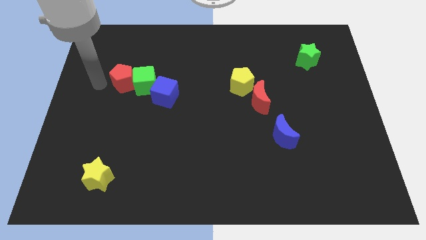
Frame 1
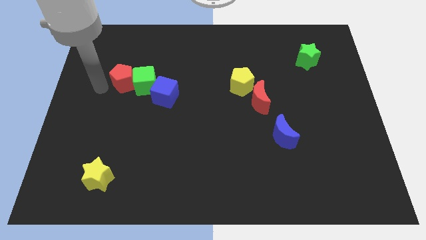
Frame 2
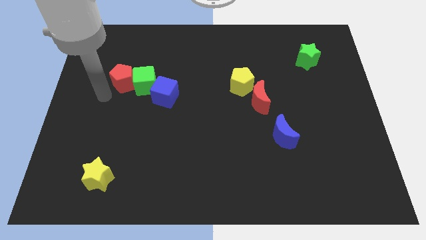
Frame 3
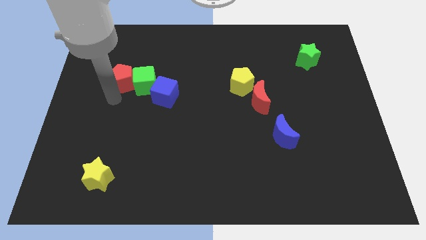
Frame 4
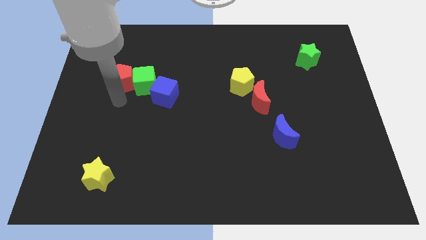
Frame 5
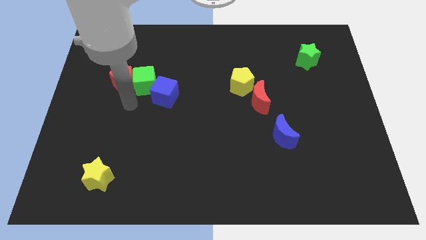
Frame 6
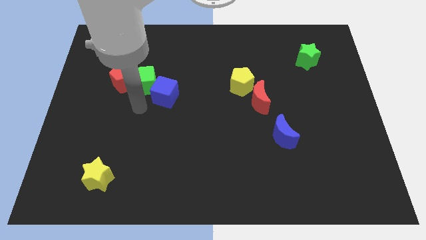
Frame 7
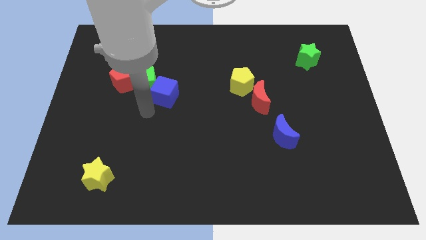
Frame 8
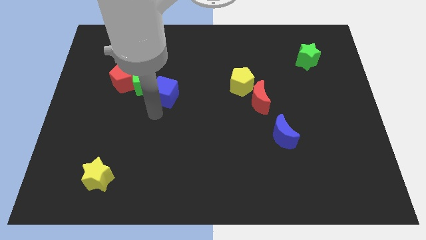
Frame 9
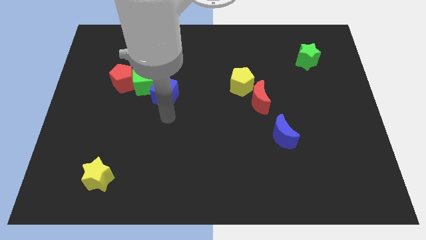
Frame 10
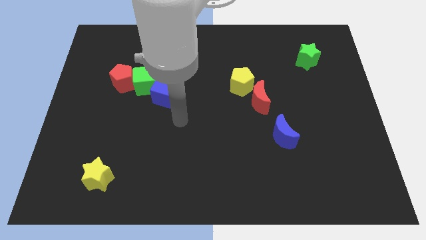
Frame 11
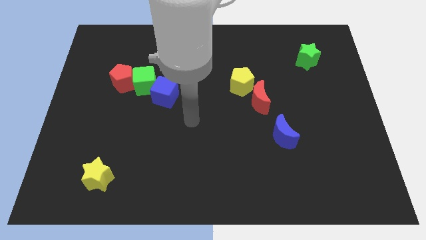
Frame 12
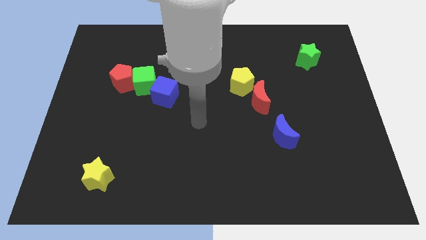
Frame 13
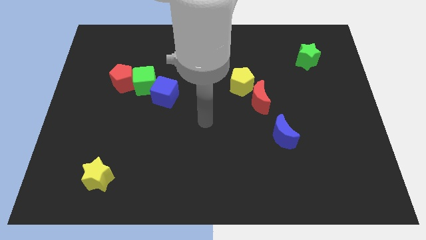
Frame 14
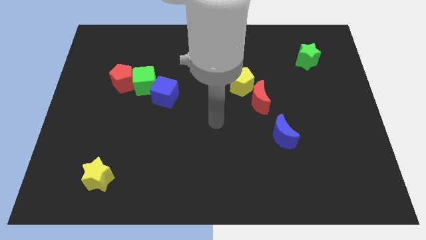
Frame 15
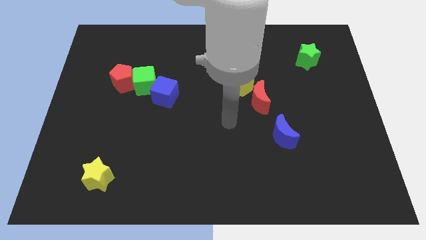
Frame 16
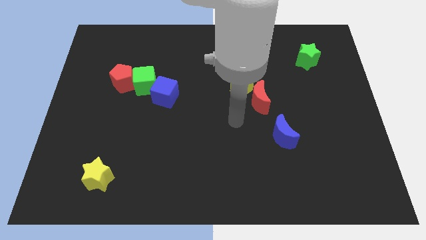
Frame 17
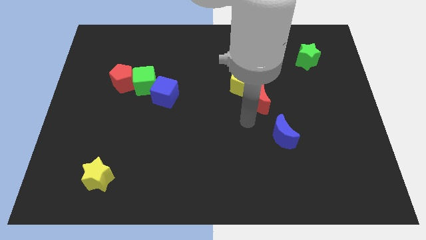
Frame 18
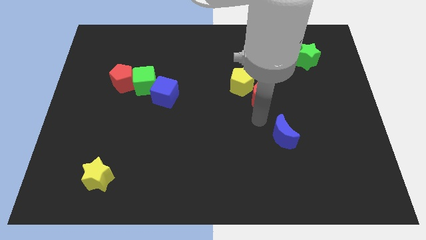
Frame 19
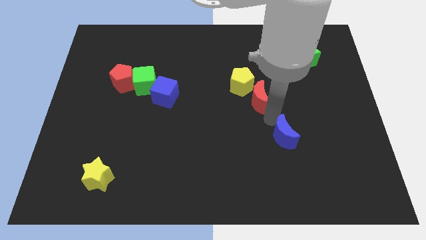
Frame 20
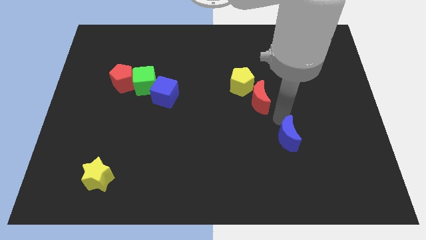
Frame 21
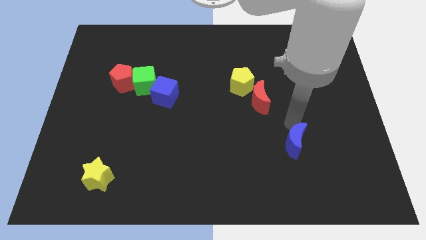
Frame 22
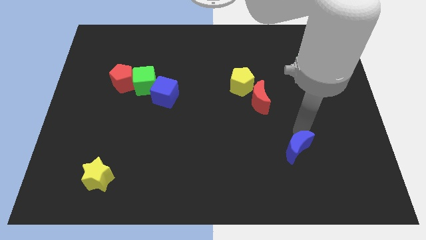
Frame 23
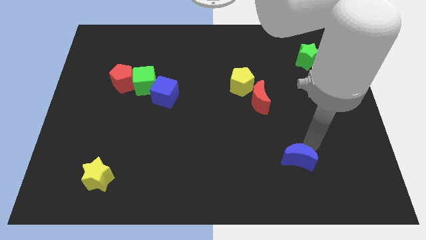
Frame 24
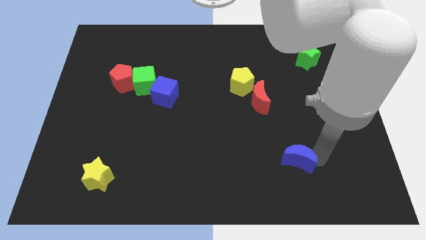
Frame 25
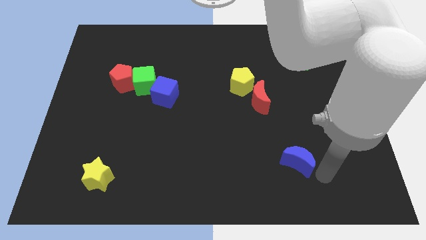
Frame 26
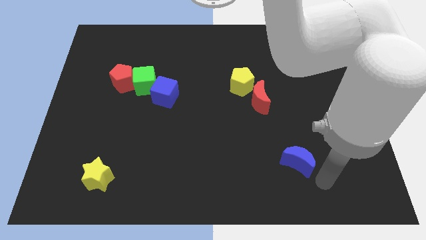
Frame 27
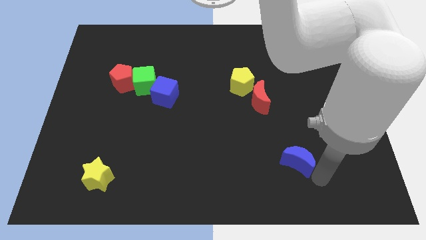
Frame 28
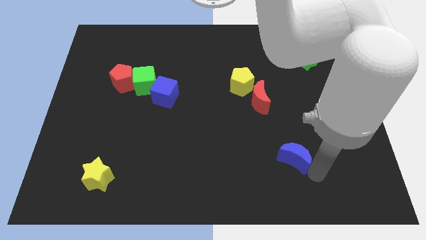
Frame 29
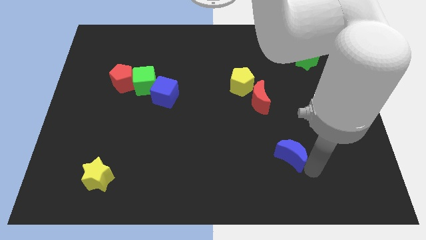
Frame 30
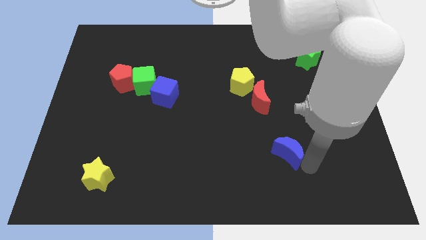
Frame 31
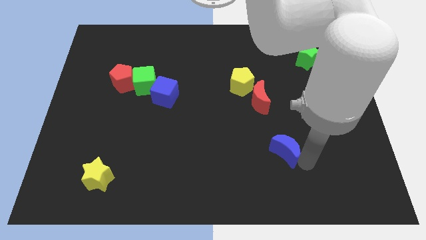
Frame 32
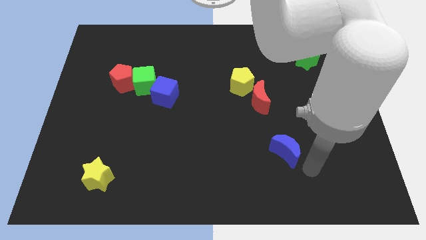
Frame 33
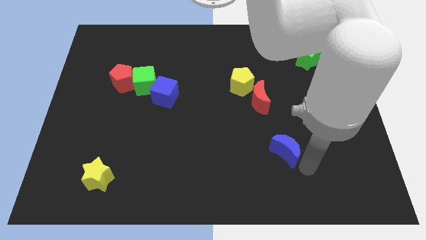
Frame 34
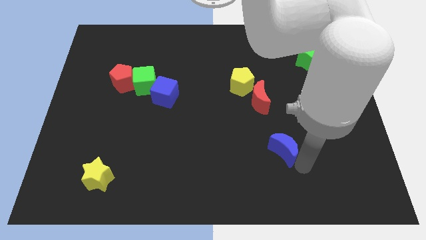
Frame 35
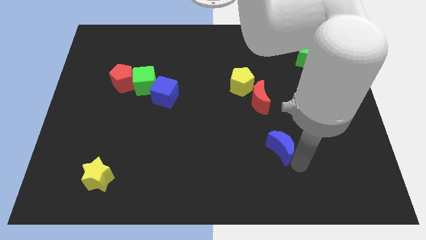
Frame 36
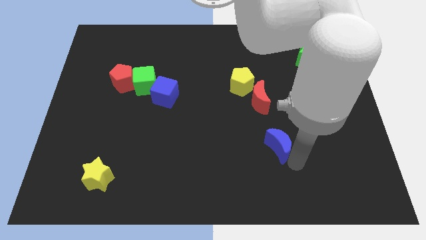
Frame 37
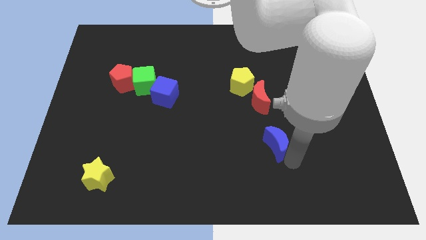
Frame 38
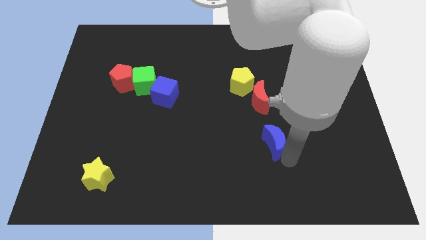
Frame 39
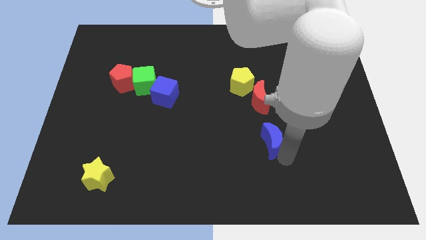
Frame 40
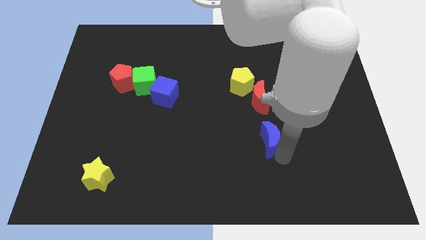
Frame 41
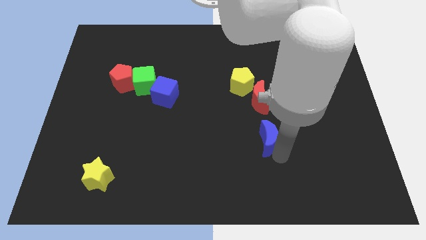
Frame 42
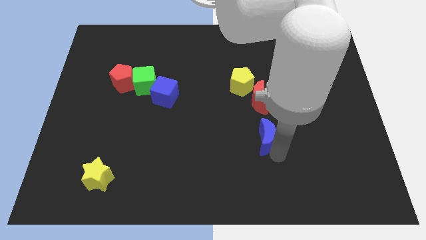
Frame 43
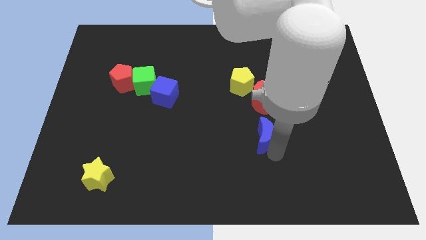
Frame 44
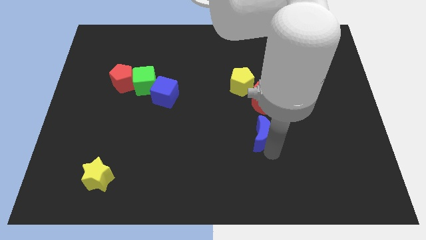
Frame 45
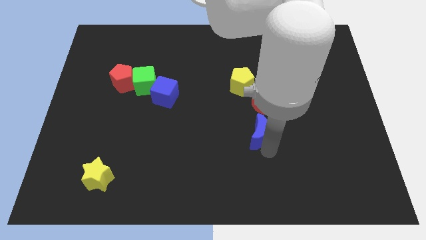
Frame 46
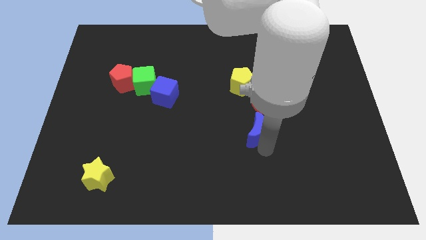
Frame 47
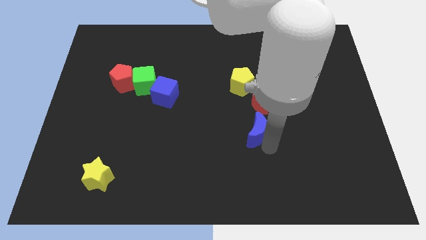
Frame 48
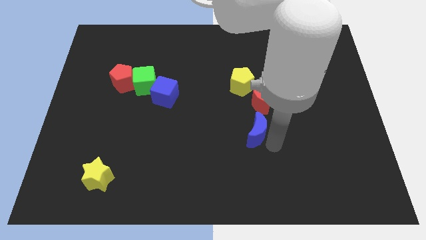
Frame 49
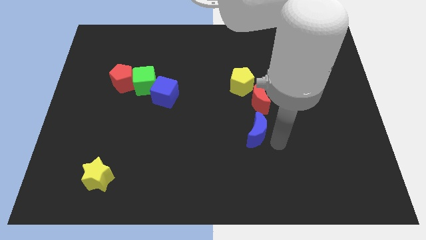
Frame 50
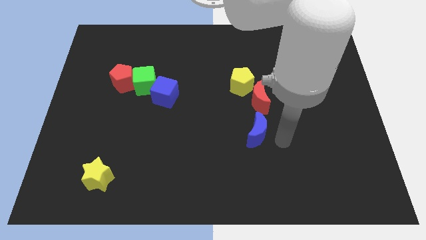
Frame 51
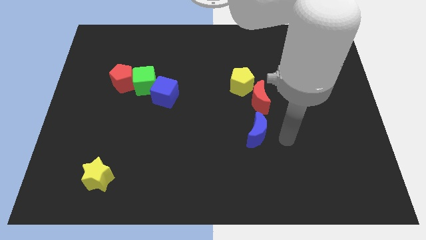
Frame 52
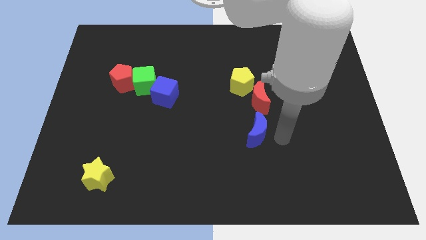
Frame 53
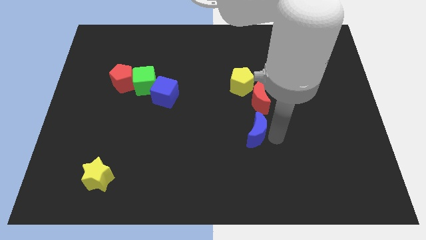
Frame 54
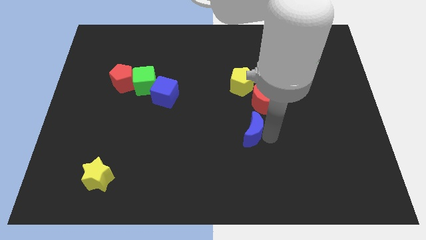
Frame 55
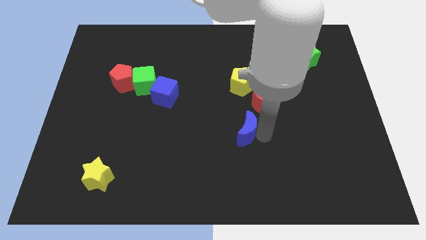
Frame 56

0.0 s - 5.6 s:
move the blue moon left slightly

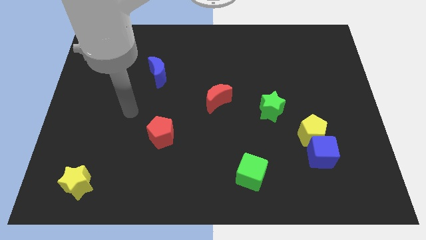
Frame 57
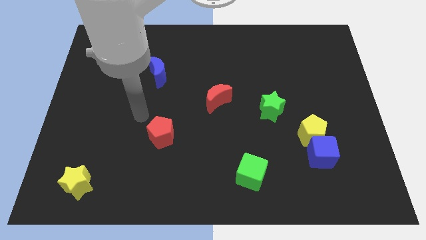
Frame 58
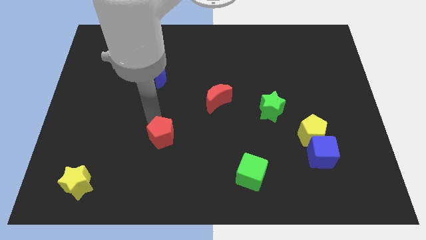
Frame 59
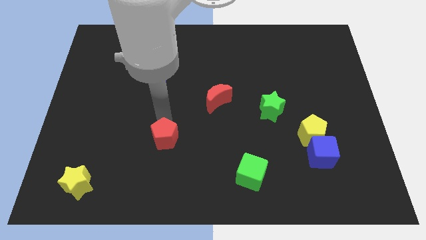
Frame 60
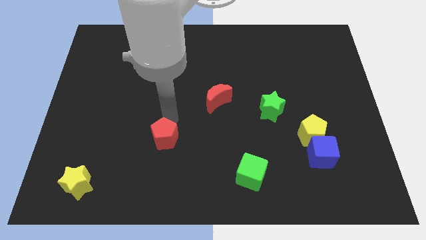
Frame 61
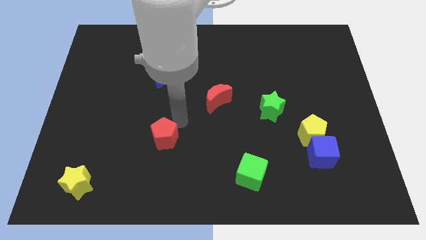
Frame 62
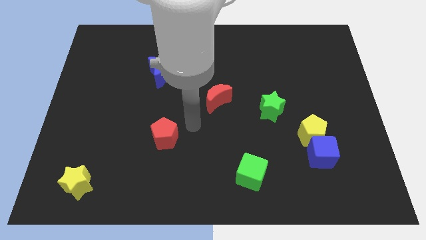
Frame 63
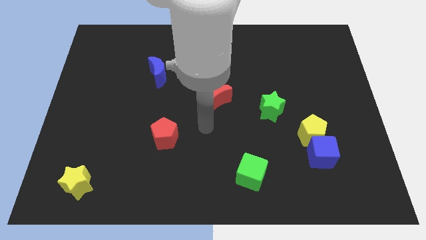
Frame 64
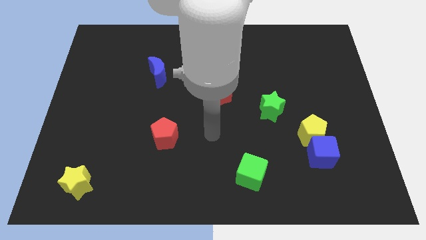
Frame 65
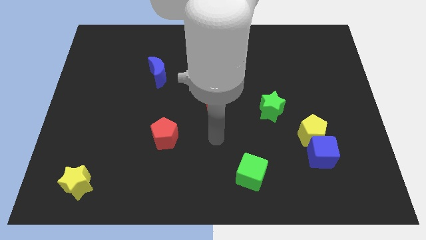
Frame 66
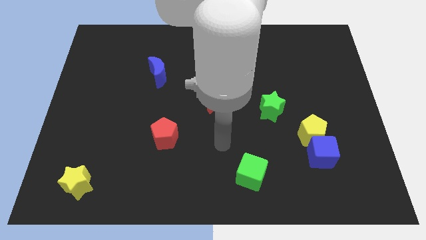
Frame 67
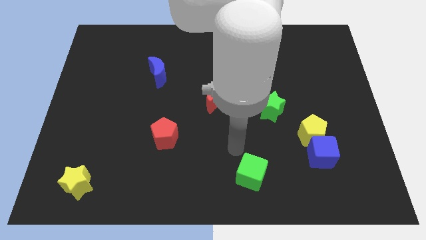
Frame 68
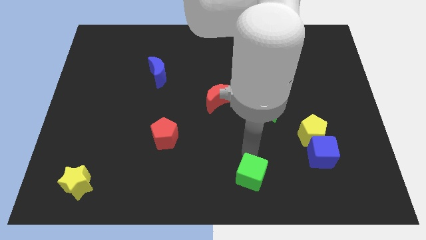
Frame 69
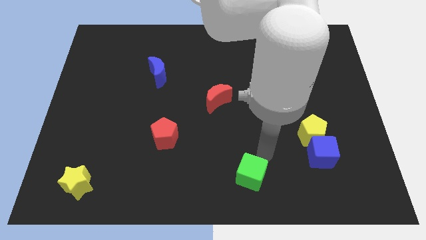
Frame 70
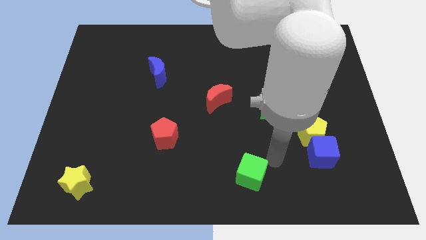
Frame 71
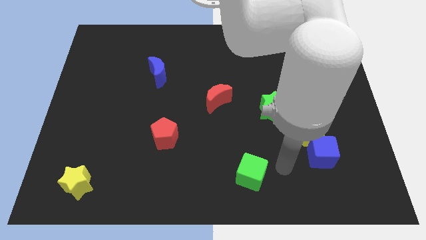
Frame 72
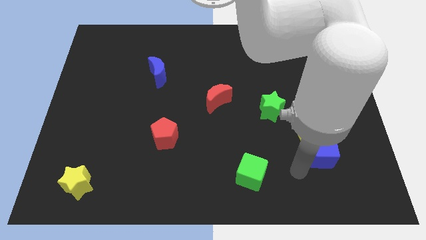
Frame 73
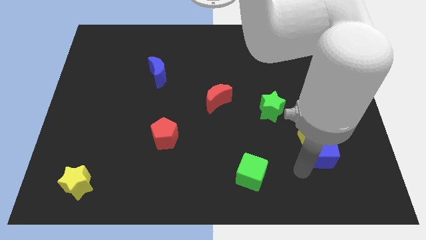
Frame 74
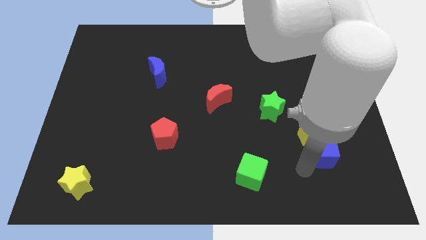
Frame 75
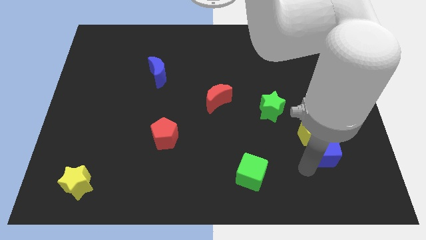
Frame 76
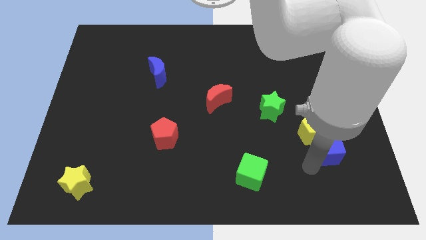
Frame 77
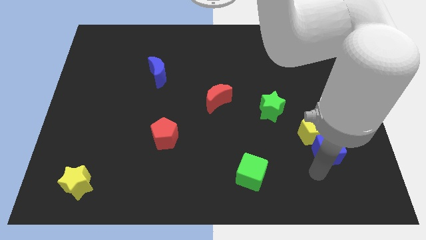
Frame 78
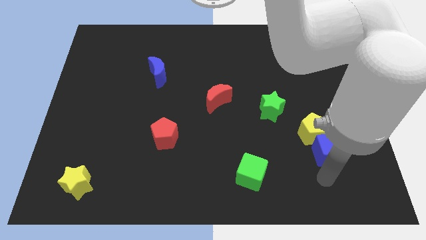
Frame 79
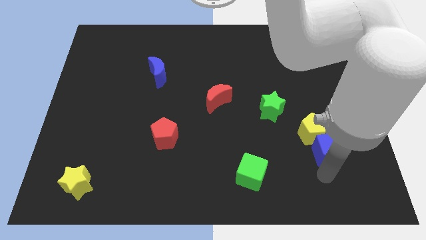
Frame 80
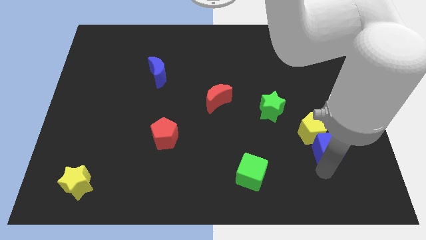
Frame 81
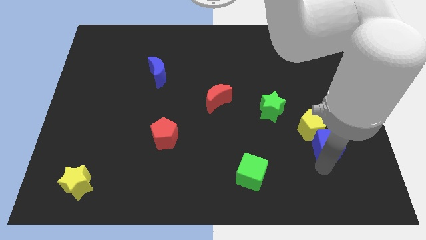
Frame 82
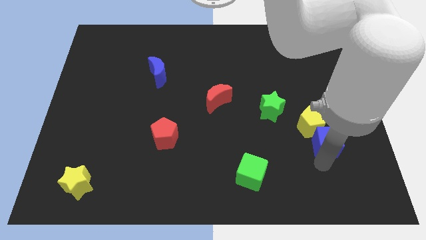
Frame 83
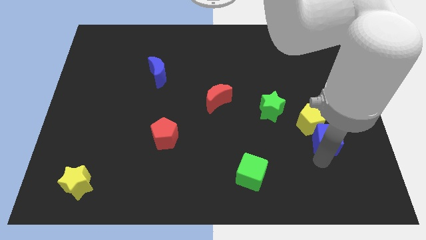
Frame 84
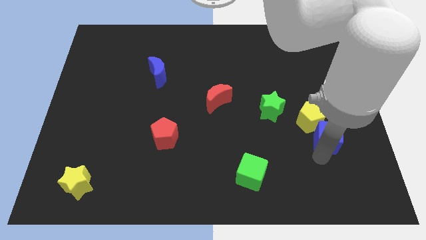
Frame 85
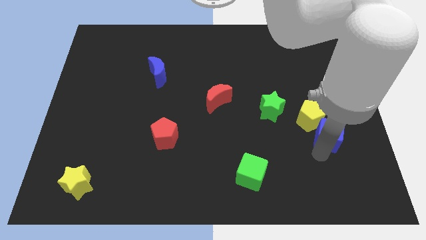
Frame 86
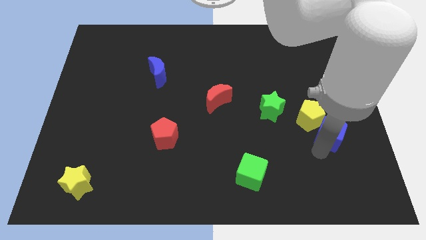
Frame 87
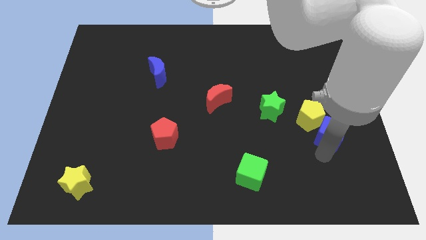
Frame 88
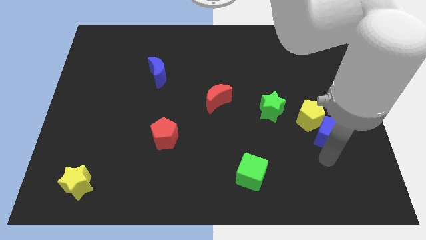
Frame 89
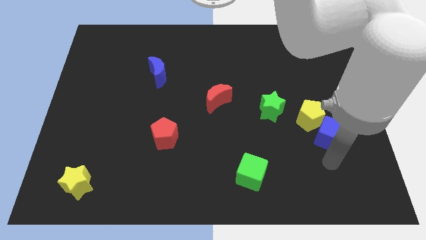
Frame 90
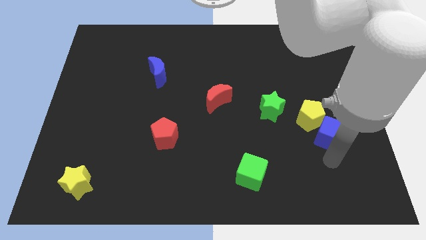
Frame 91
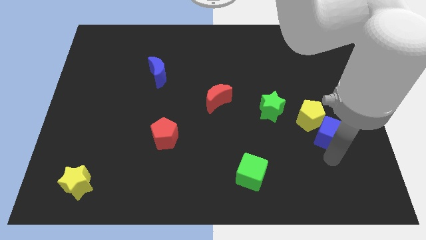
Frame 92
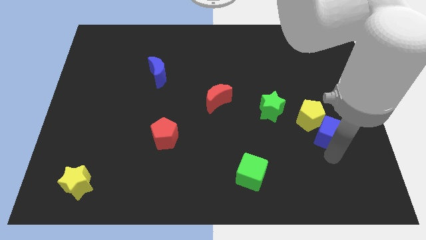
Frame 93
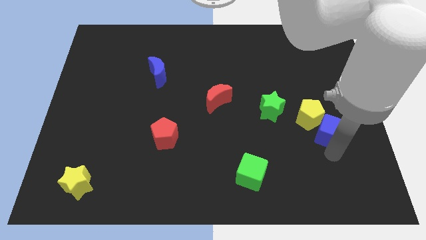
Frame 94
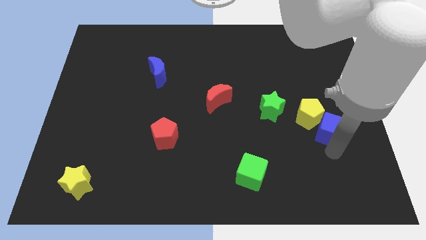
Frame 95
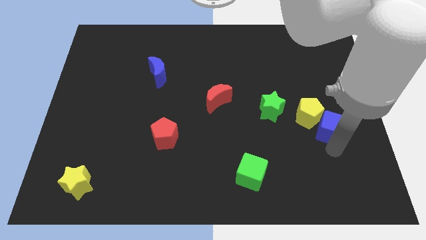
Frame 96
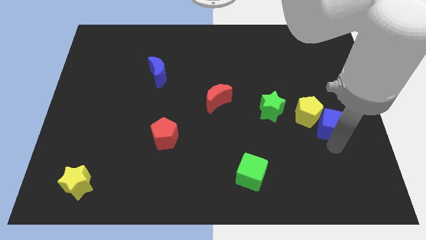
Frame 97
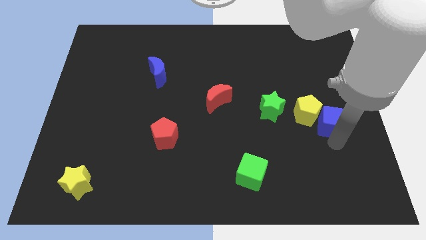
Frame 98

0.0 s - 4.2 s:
move the blue cube up slightly
